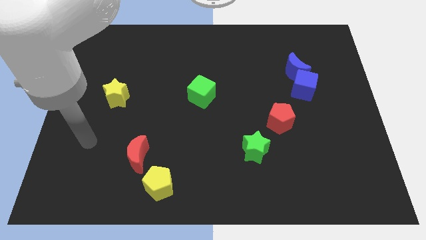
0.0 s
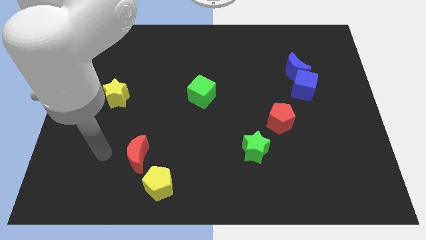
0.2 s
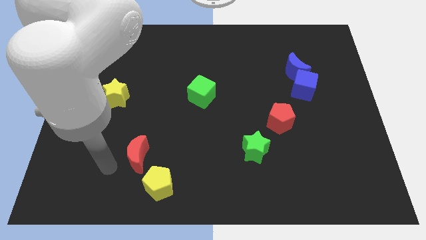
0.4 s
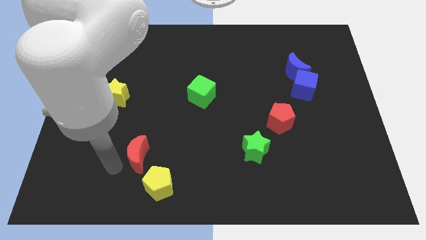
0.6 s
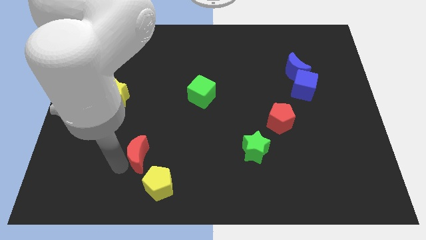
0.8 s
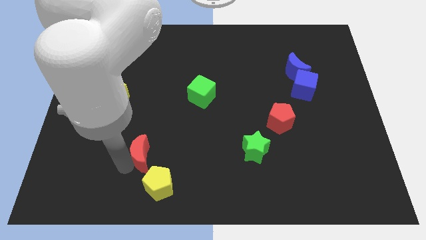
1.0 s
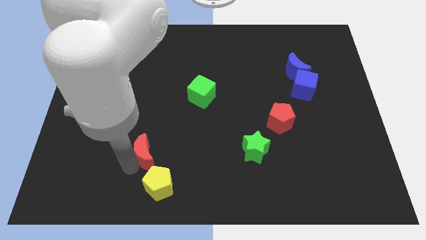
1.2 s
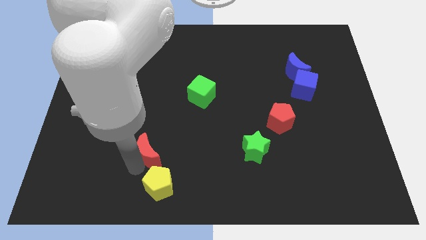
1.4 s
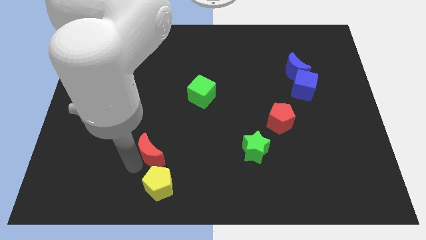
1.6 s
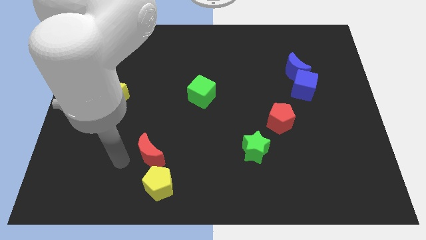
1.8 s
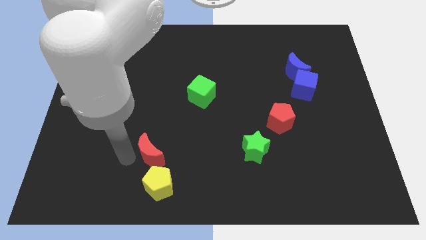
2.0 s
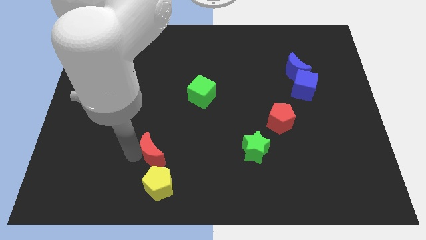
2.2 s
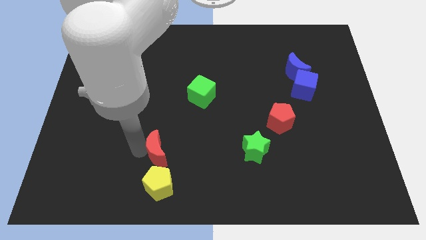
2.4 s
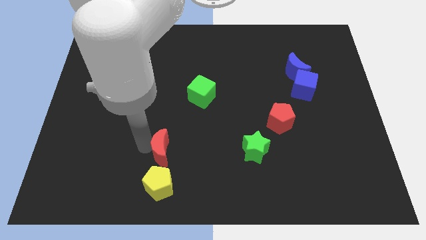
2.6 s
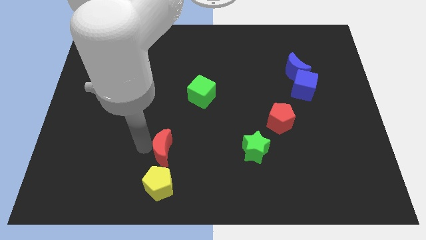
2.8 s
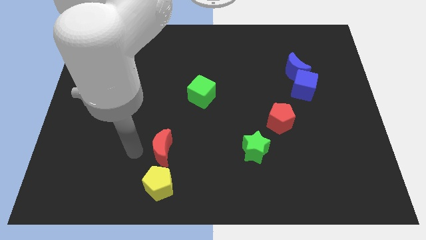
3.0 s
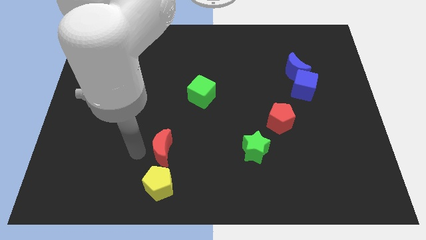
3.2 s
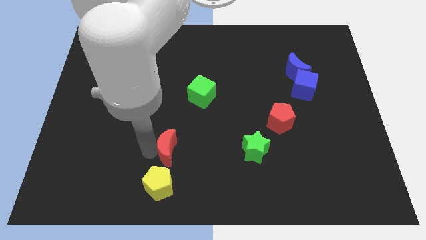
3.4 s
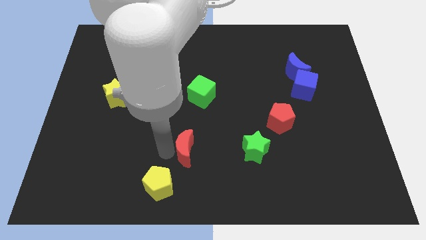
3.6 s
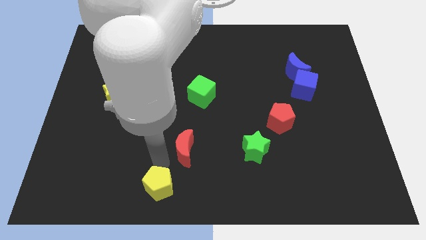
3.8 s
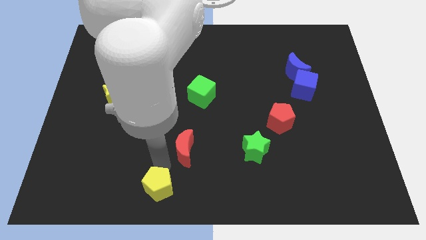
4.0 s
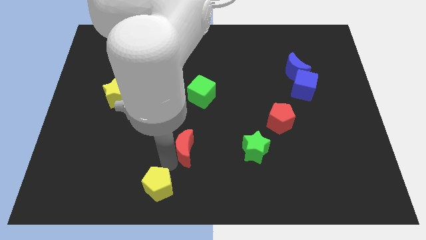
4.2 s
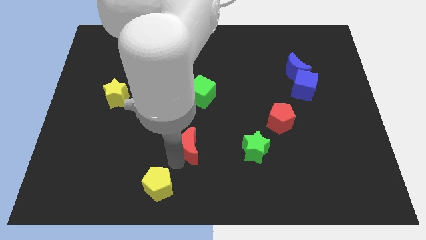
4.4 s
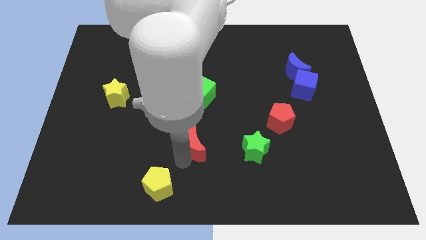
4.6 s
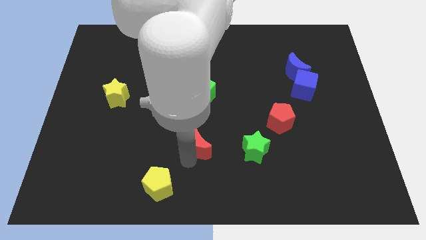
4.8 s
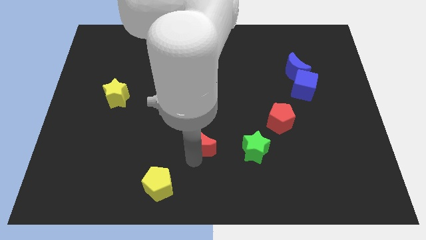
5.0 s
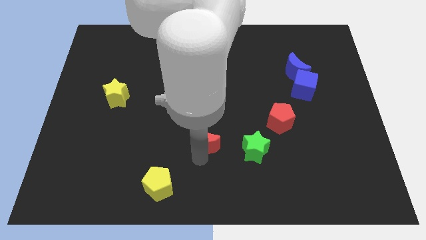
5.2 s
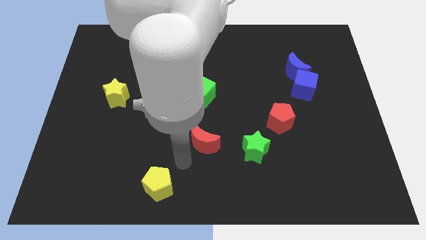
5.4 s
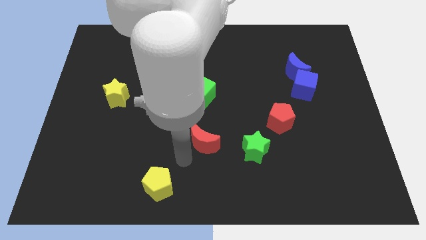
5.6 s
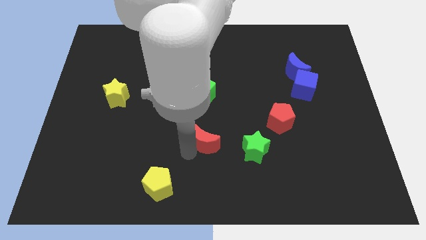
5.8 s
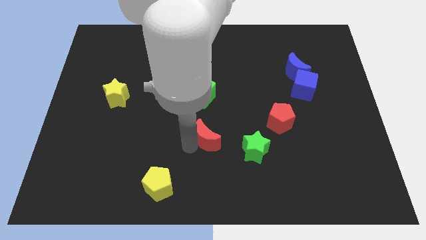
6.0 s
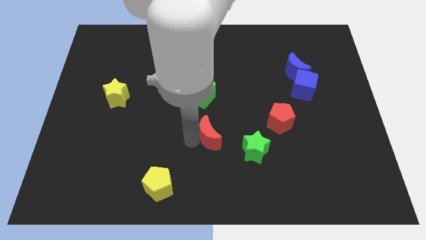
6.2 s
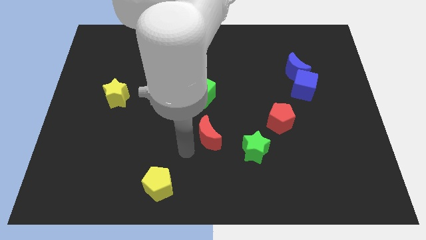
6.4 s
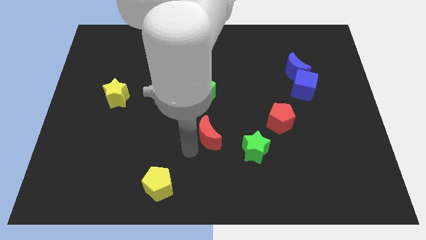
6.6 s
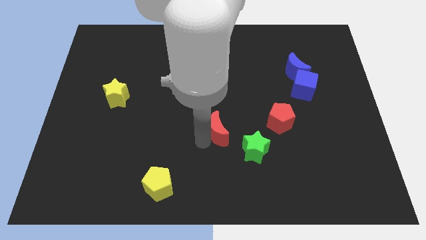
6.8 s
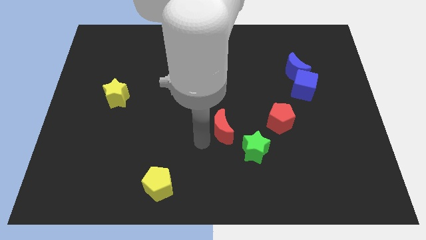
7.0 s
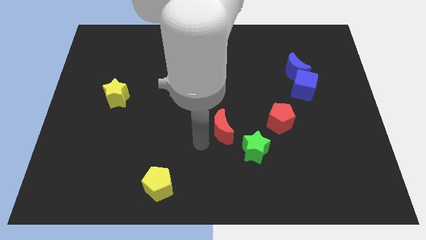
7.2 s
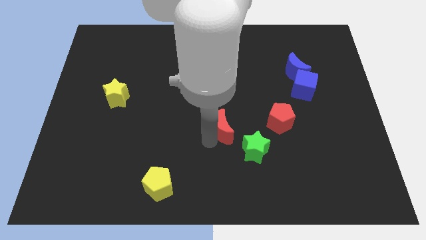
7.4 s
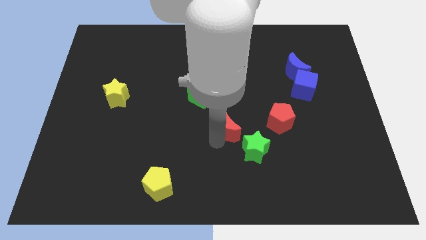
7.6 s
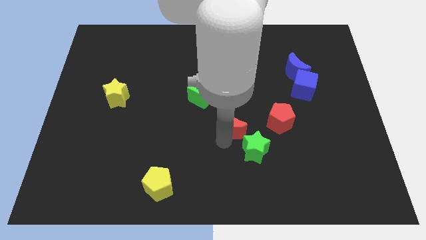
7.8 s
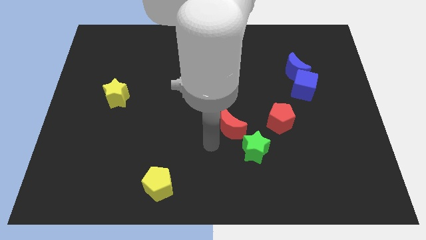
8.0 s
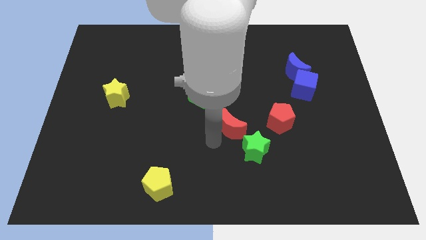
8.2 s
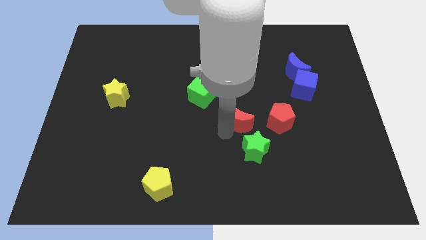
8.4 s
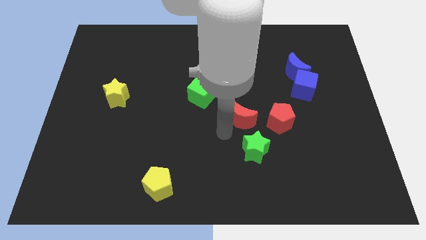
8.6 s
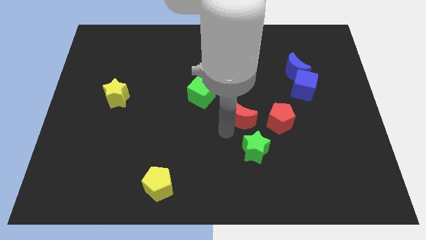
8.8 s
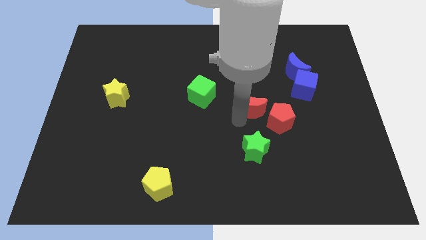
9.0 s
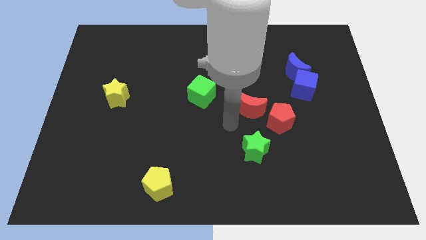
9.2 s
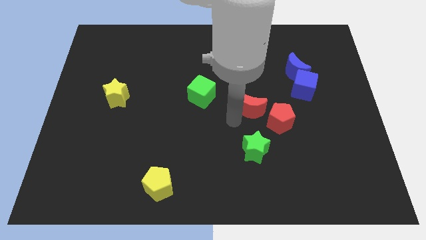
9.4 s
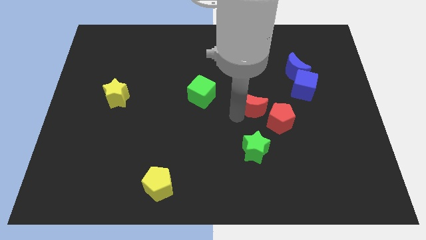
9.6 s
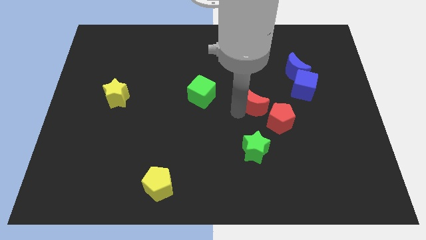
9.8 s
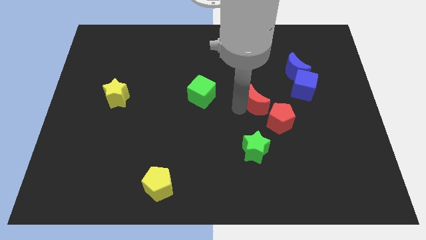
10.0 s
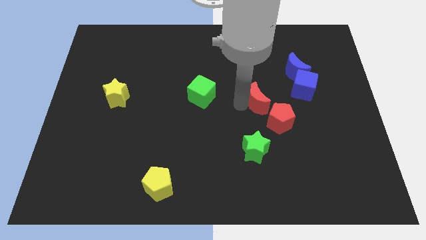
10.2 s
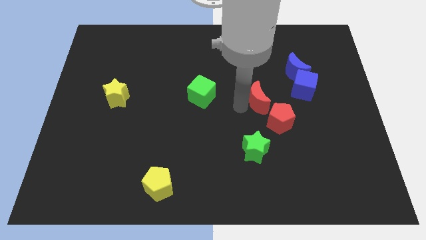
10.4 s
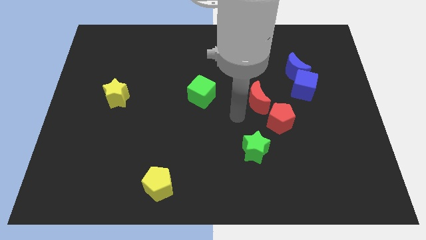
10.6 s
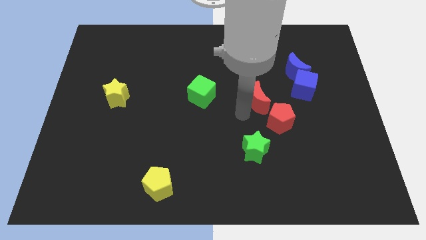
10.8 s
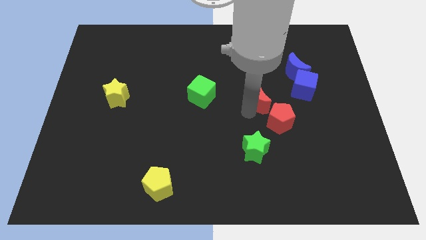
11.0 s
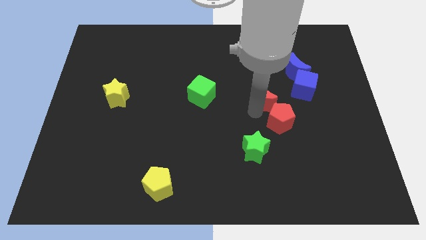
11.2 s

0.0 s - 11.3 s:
slide the red moon diagonally down and to the left of the blue moon

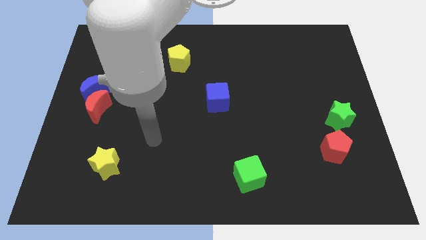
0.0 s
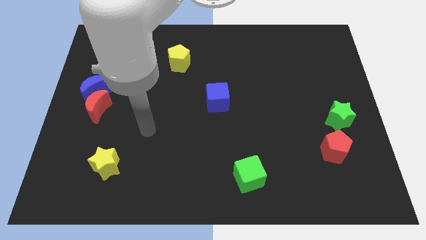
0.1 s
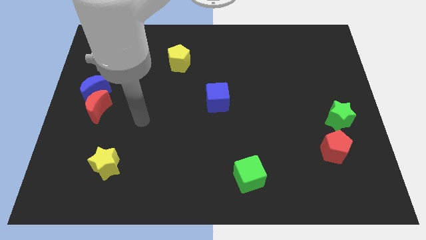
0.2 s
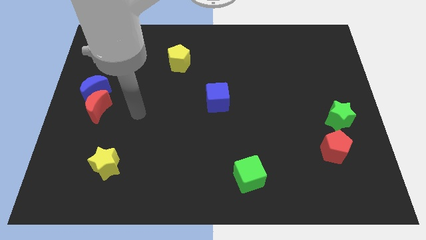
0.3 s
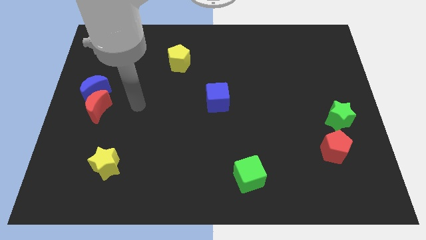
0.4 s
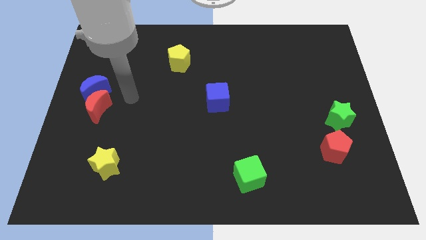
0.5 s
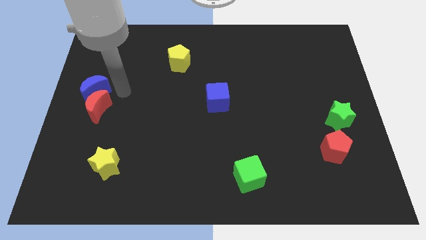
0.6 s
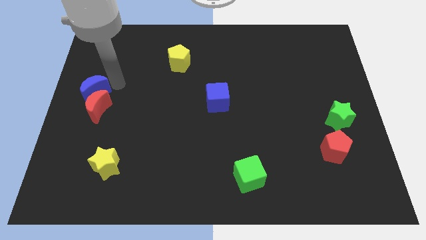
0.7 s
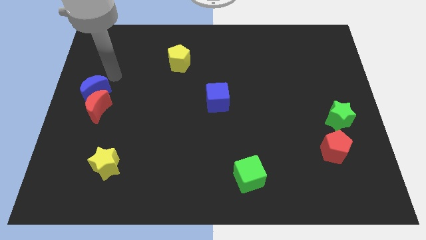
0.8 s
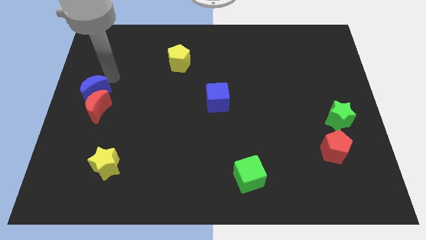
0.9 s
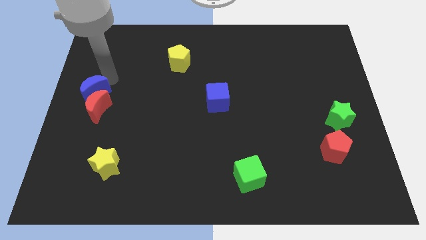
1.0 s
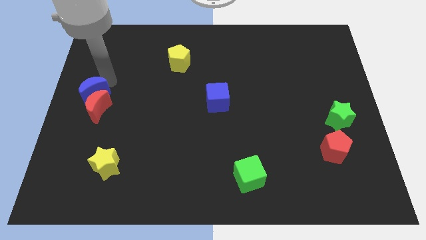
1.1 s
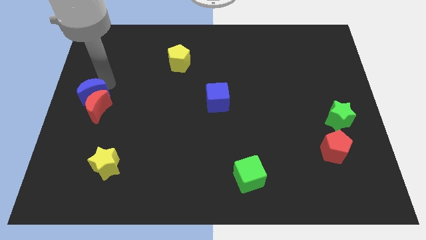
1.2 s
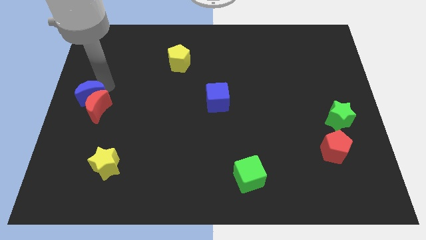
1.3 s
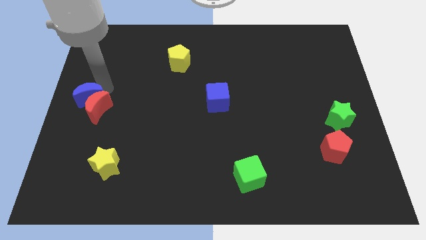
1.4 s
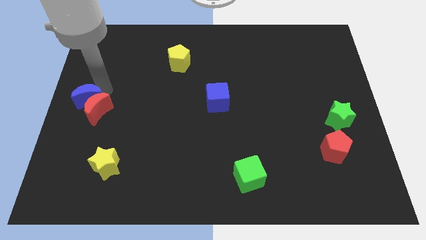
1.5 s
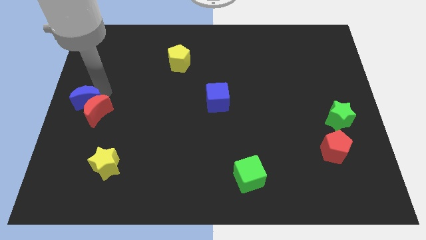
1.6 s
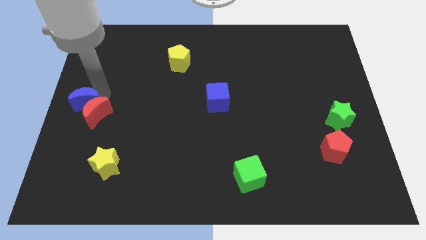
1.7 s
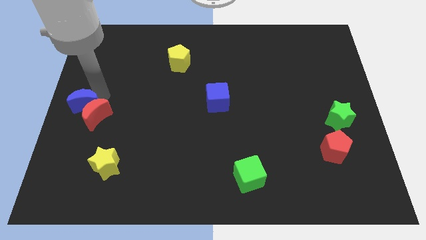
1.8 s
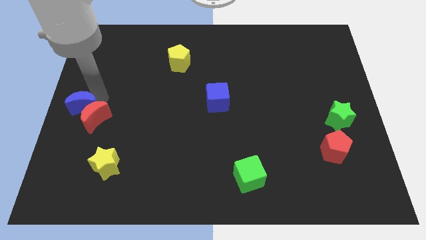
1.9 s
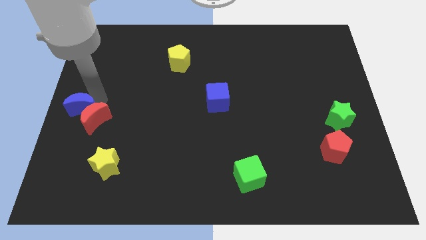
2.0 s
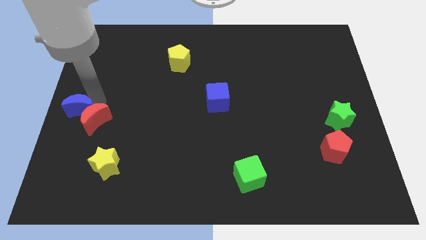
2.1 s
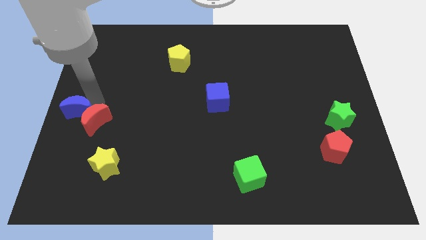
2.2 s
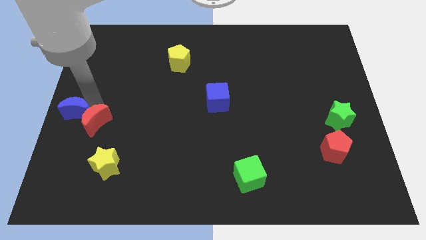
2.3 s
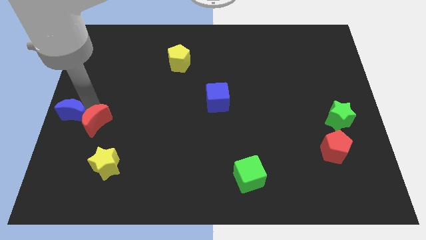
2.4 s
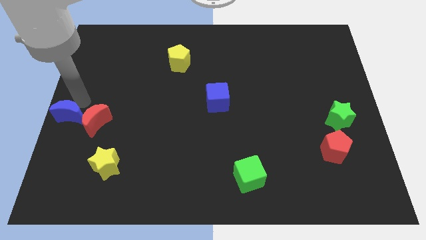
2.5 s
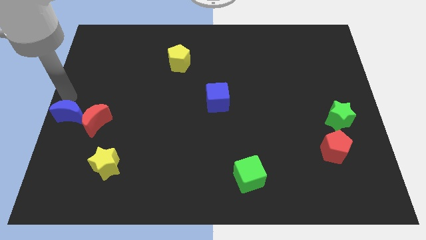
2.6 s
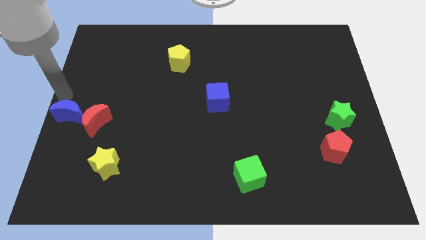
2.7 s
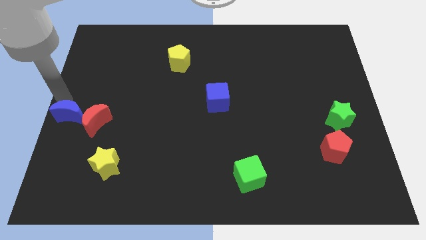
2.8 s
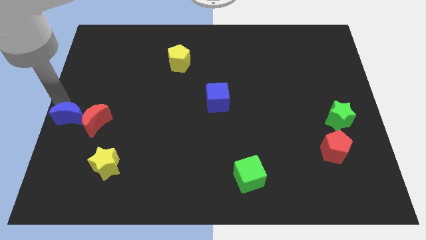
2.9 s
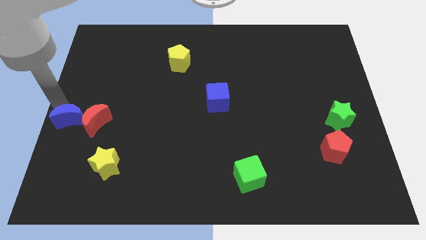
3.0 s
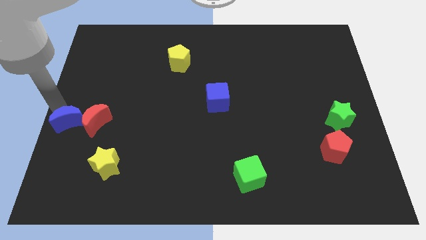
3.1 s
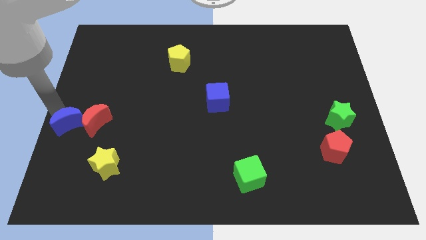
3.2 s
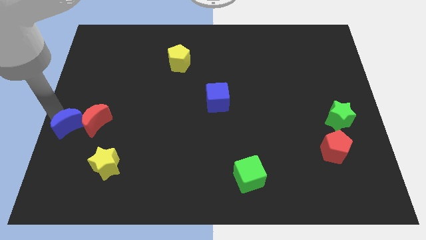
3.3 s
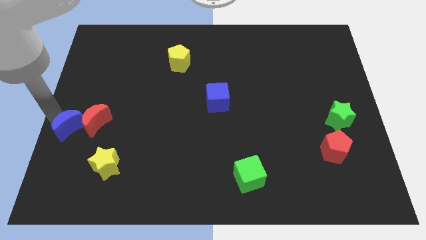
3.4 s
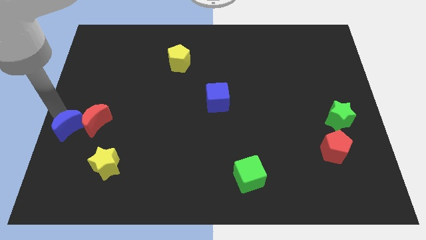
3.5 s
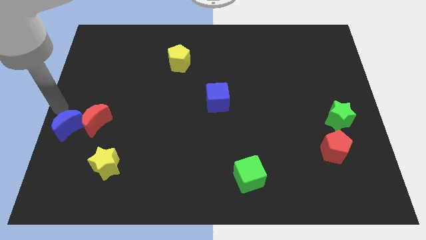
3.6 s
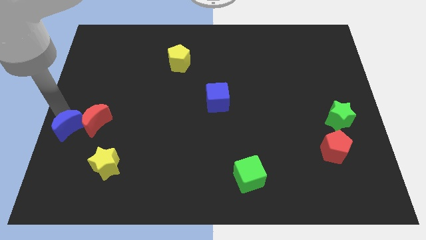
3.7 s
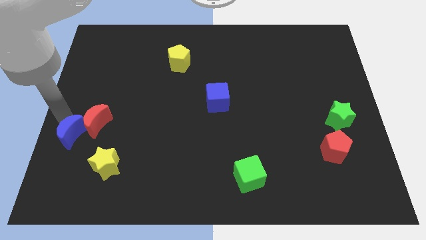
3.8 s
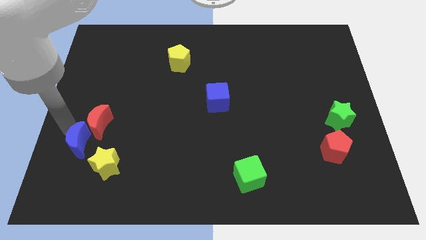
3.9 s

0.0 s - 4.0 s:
move the blue moon below the red moon
